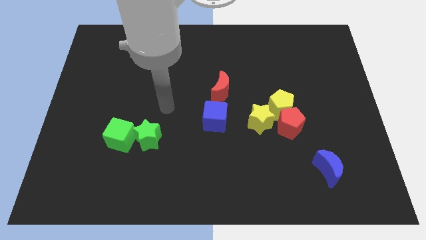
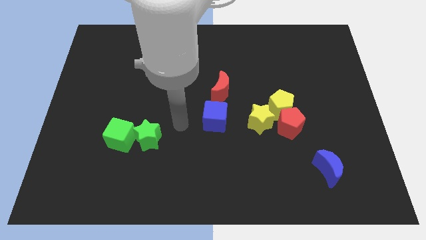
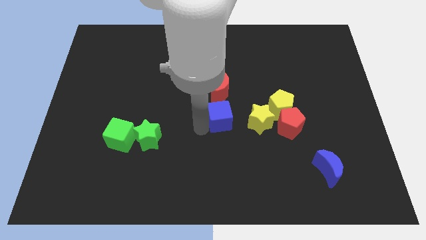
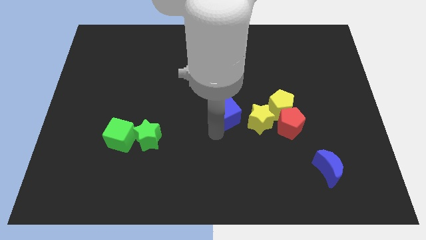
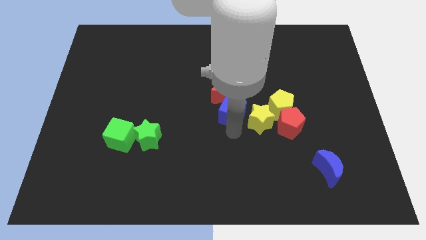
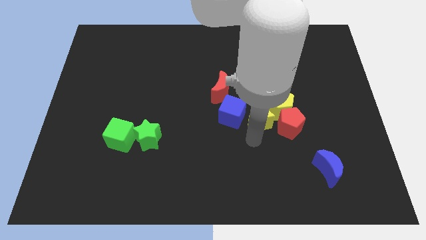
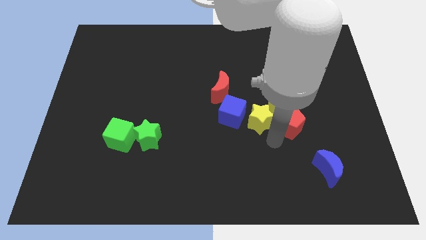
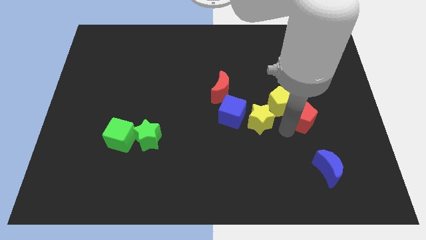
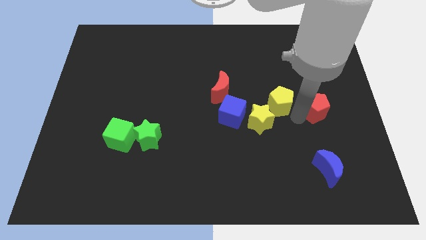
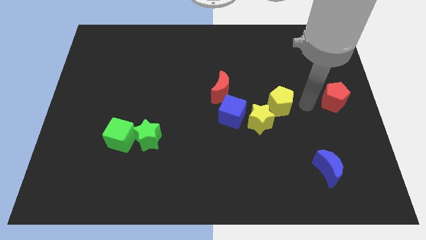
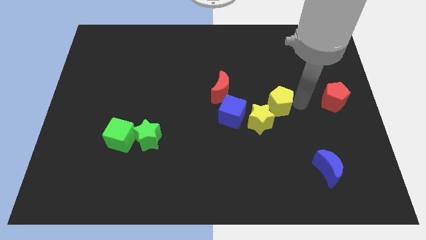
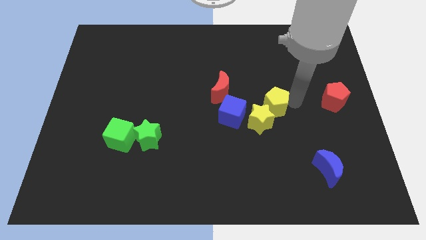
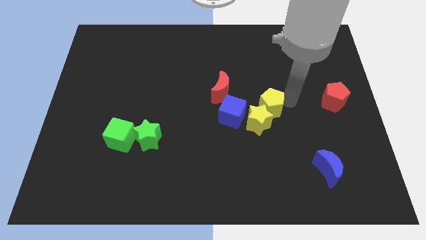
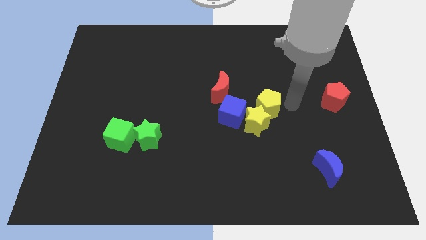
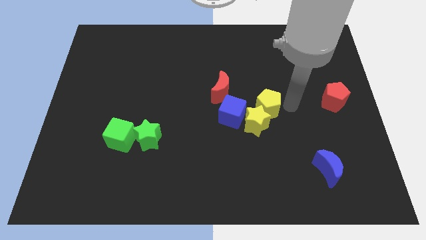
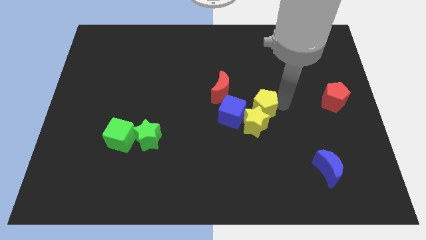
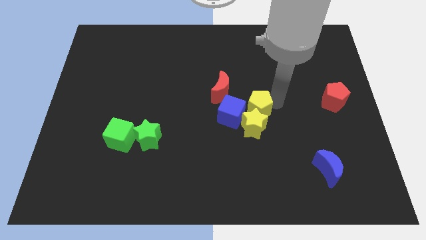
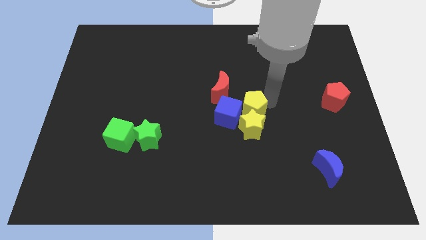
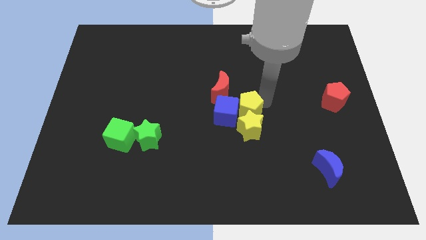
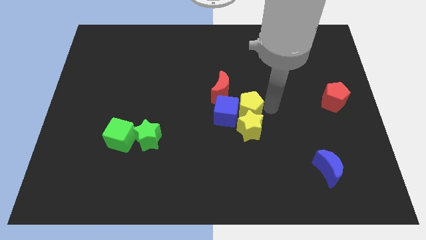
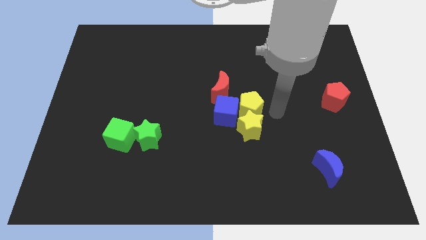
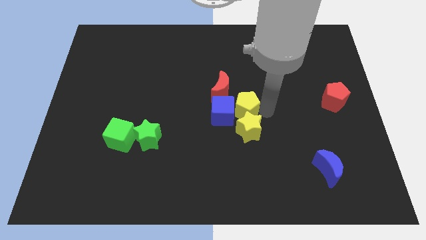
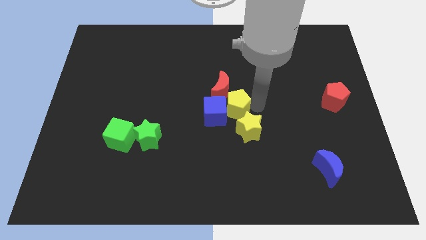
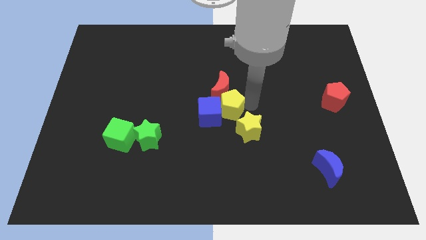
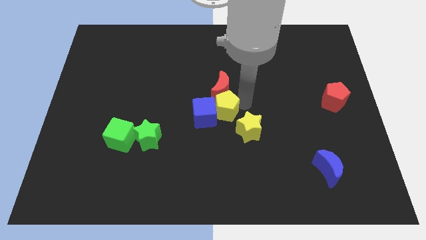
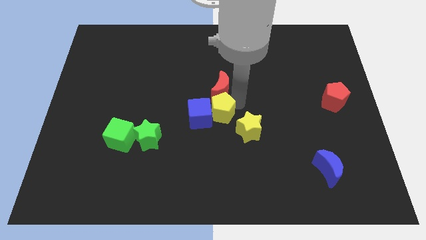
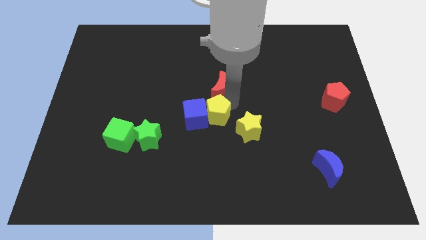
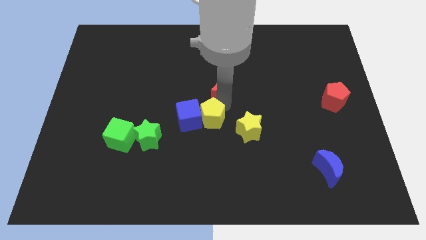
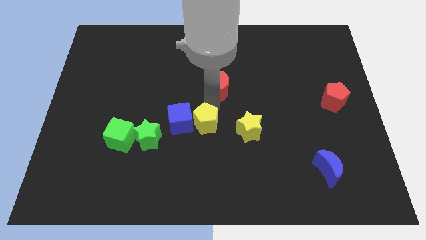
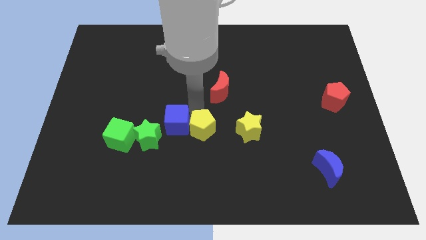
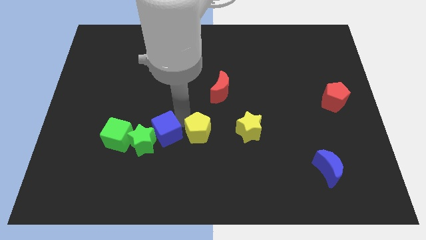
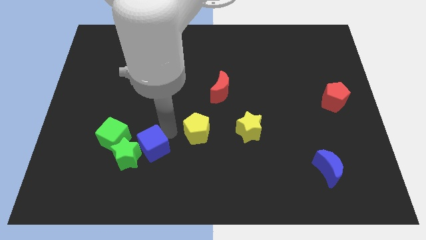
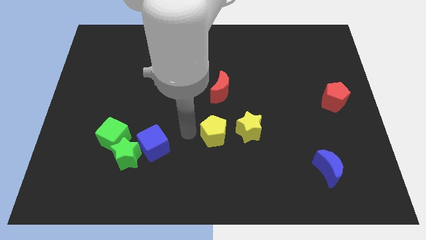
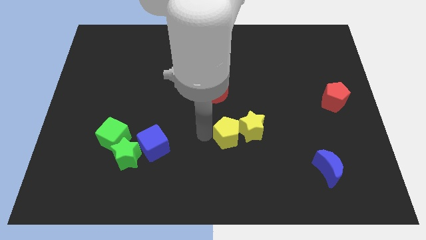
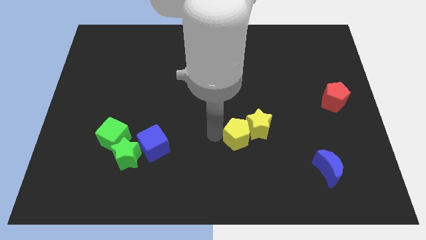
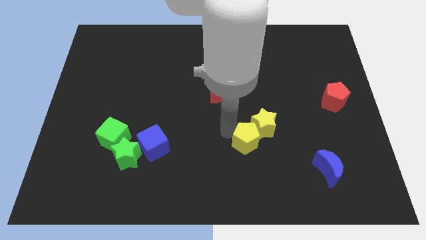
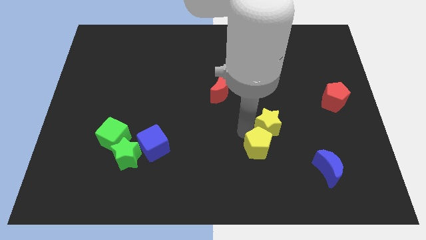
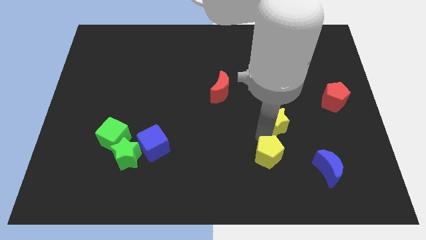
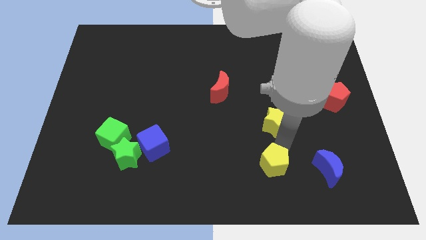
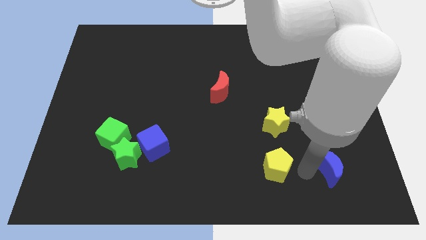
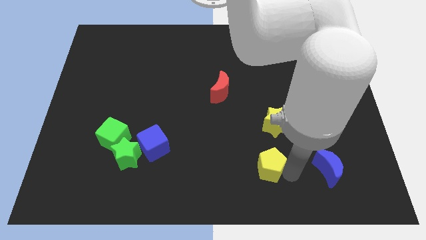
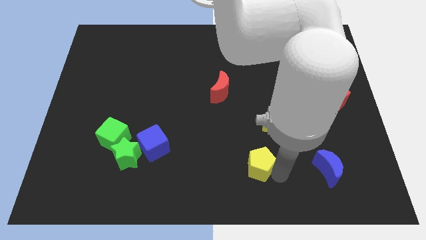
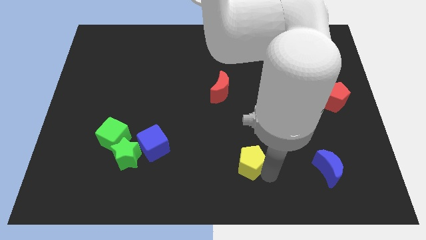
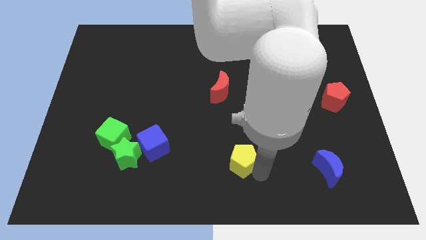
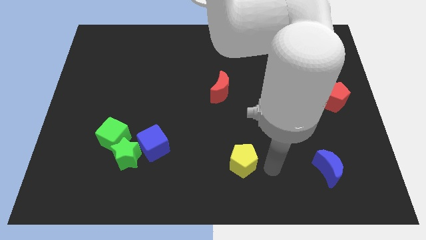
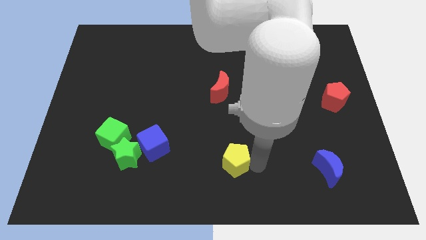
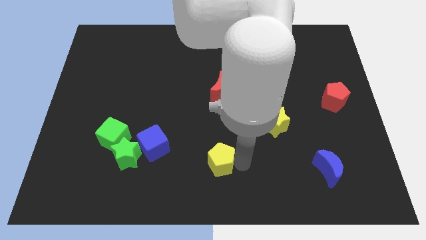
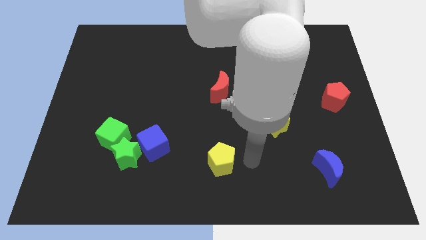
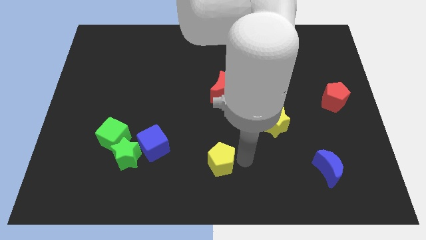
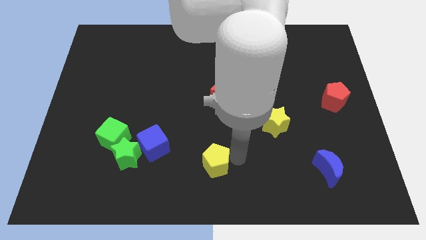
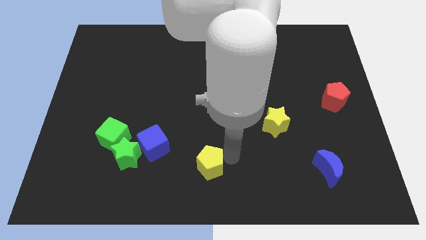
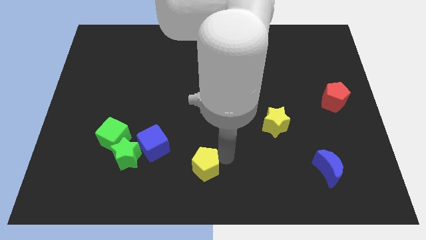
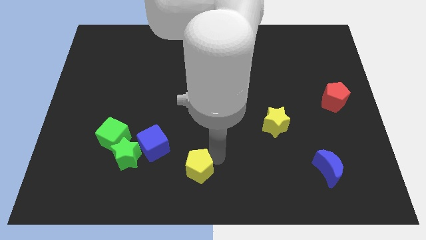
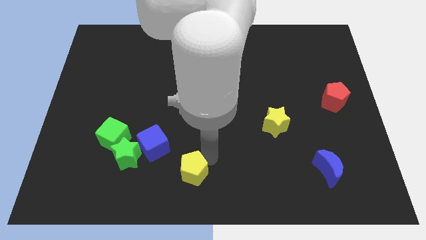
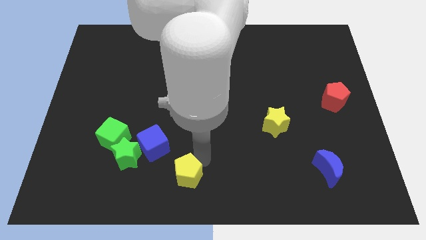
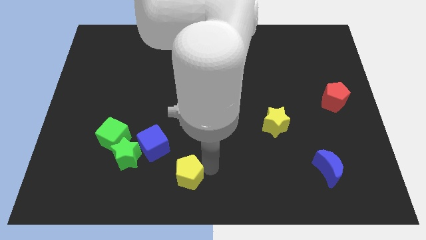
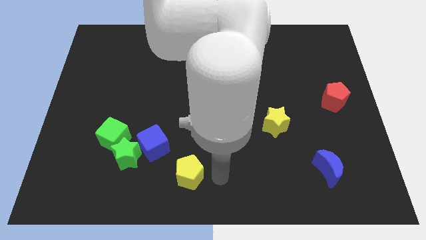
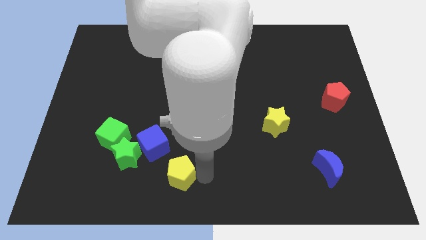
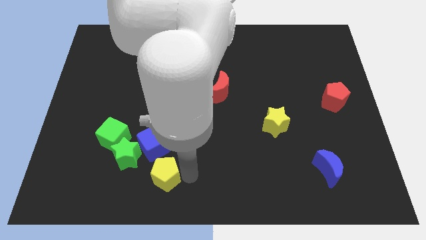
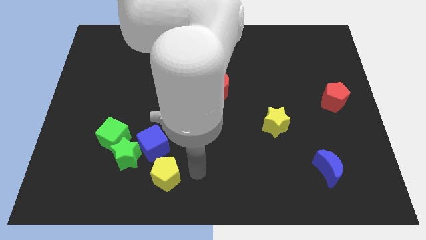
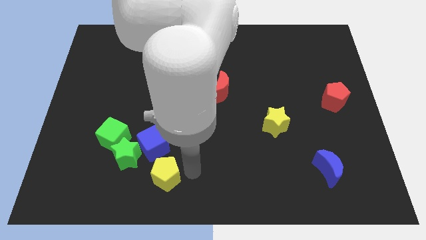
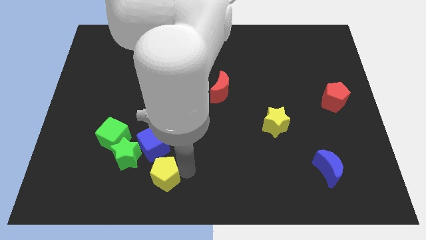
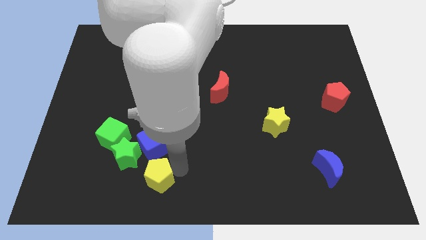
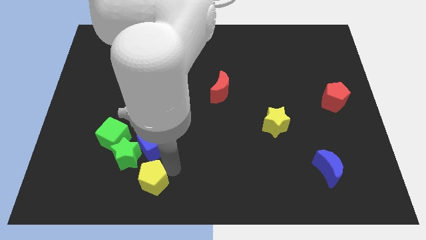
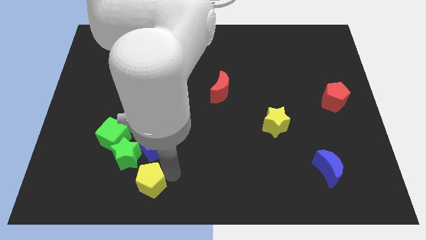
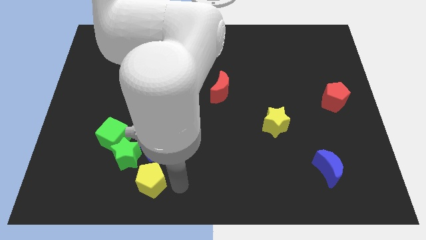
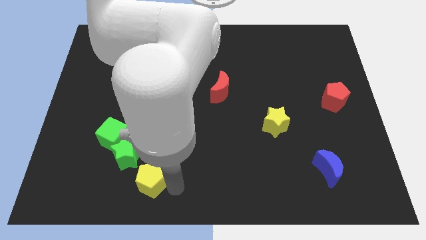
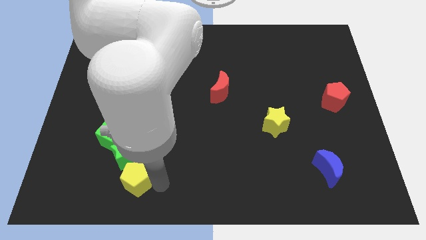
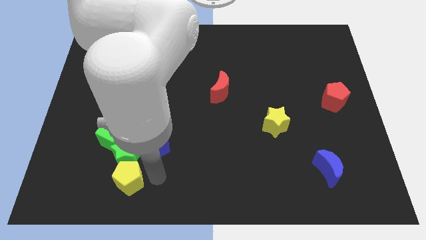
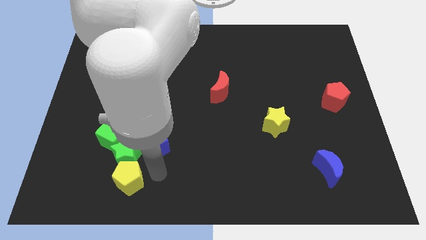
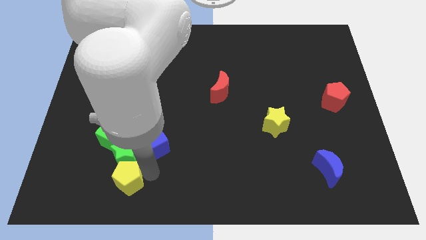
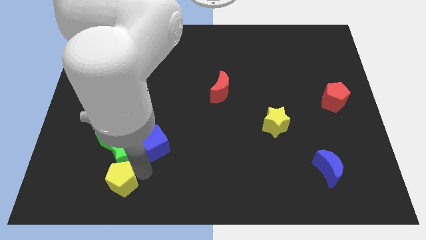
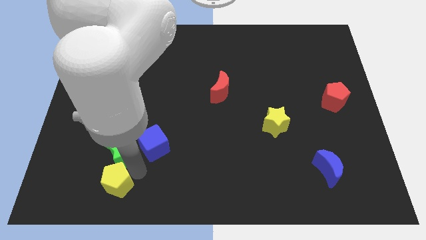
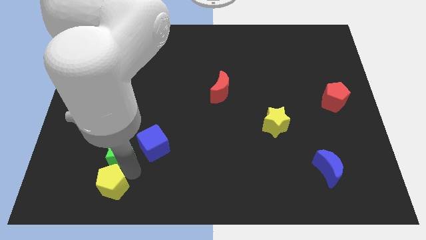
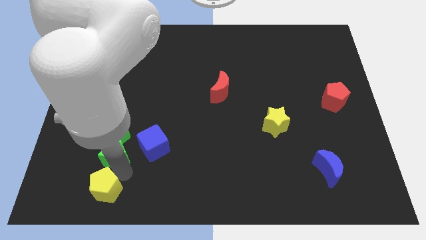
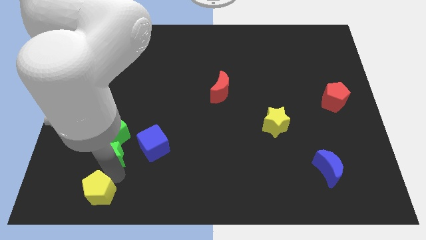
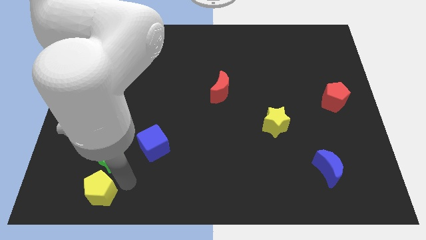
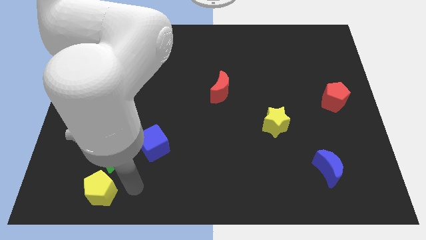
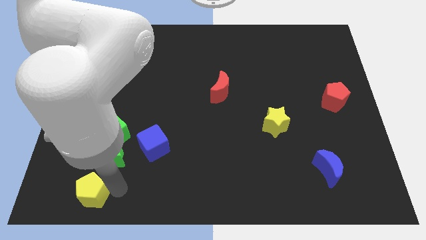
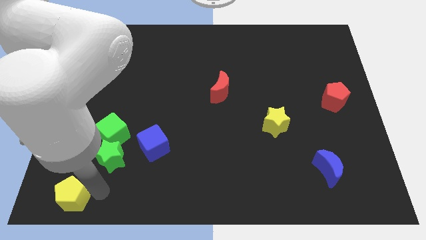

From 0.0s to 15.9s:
slide the yellow pentagon to the bottom left of the board
